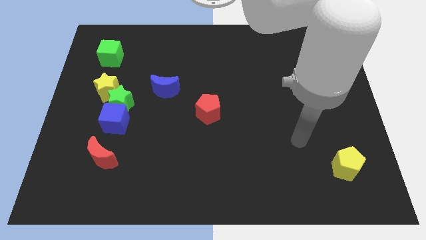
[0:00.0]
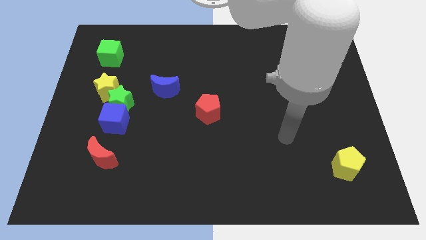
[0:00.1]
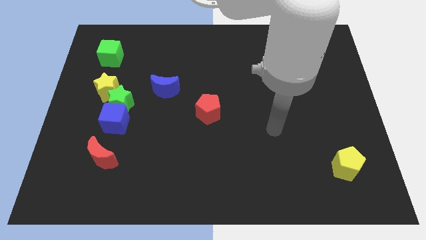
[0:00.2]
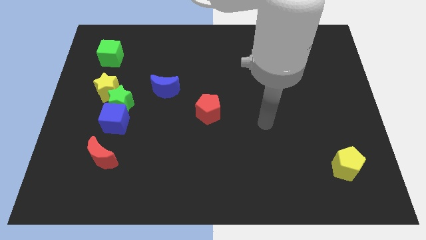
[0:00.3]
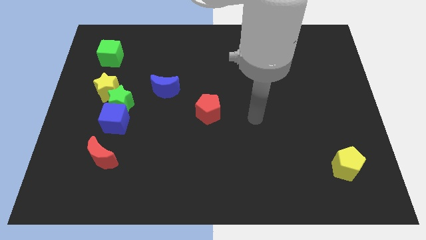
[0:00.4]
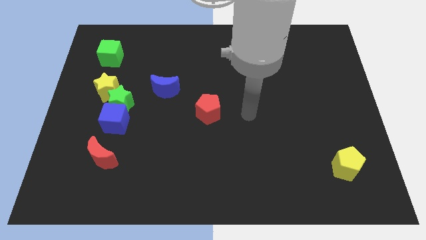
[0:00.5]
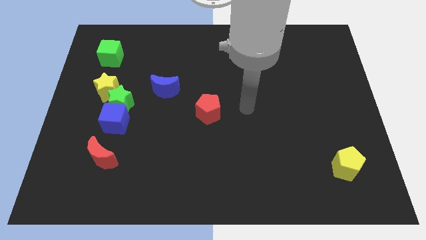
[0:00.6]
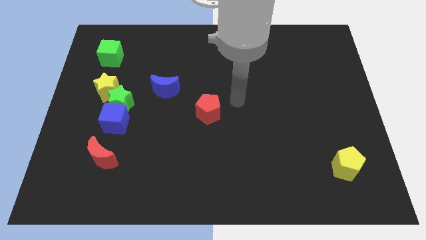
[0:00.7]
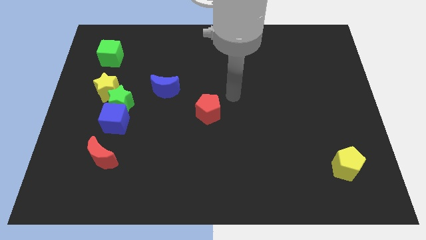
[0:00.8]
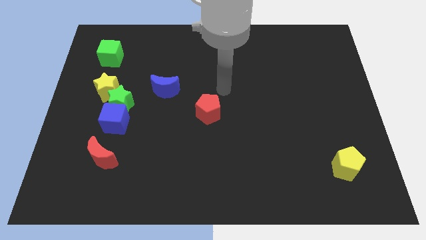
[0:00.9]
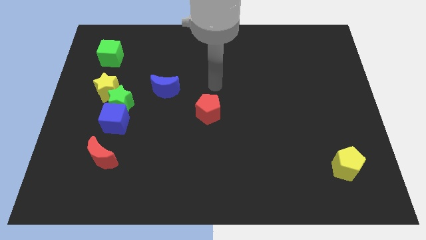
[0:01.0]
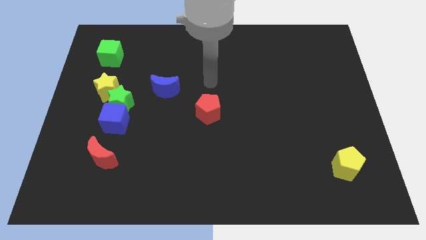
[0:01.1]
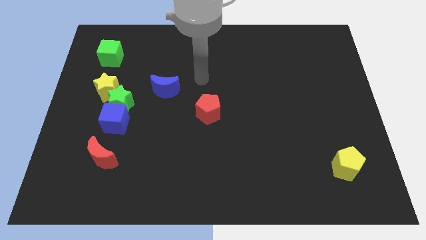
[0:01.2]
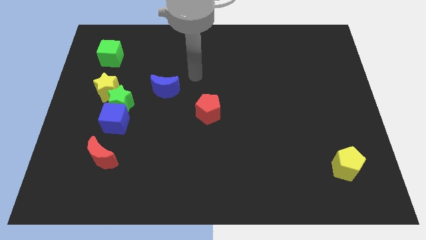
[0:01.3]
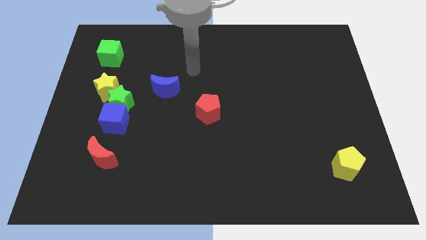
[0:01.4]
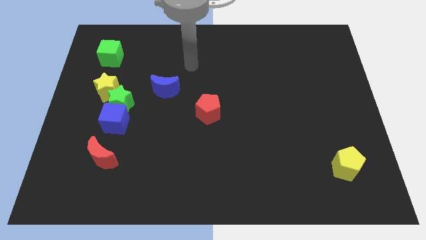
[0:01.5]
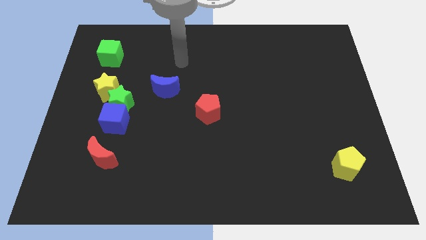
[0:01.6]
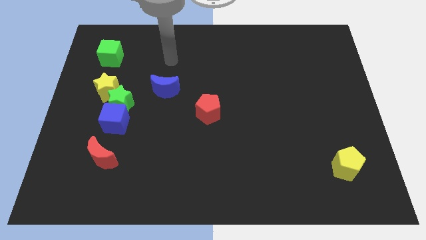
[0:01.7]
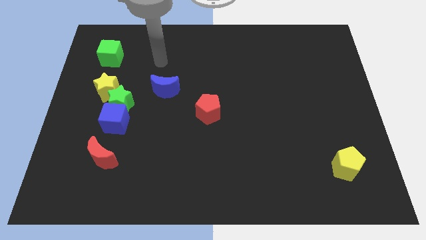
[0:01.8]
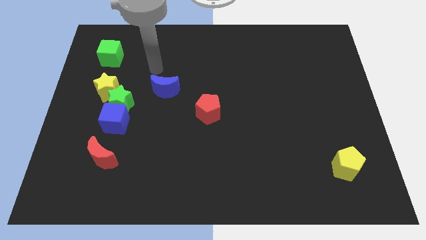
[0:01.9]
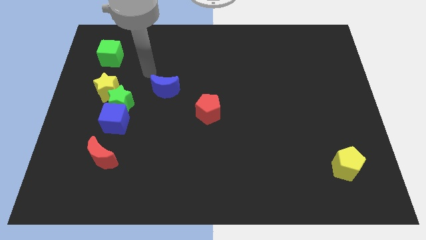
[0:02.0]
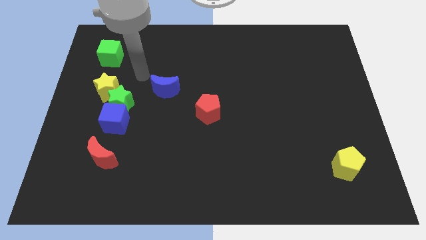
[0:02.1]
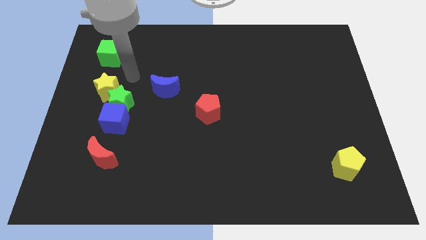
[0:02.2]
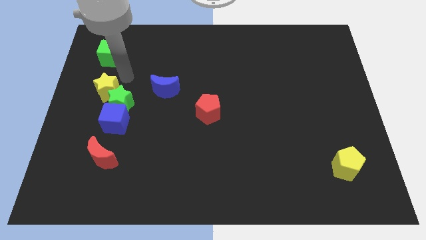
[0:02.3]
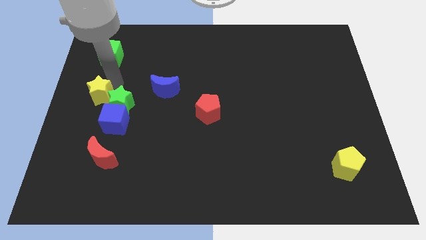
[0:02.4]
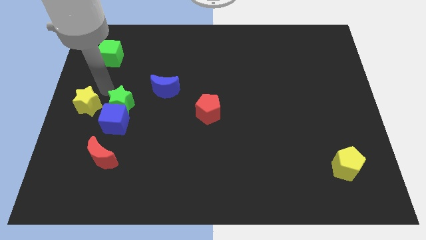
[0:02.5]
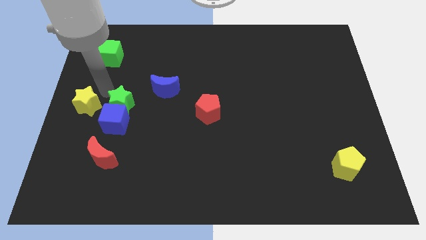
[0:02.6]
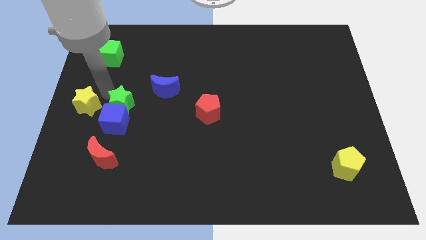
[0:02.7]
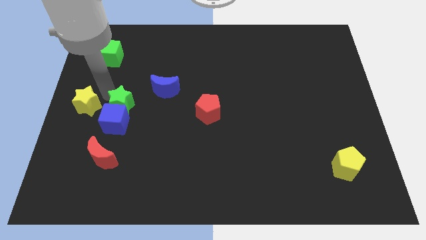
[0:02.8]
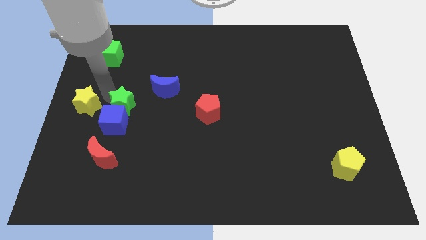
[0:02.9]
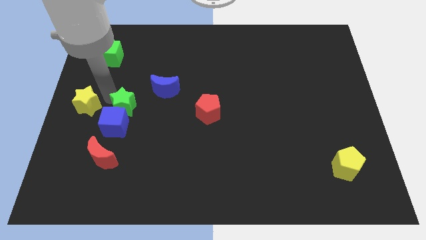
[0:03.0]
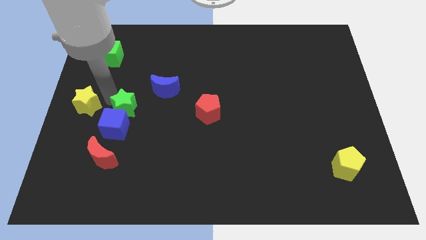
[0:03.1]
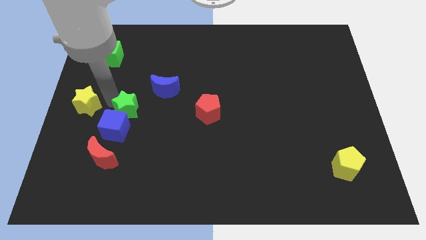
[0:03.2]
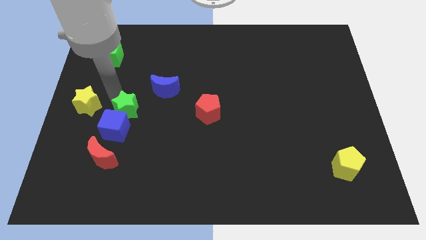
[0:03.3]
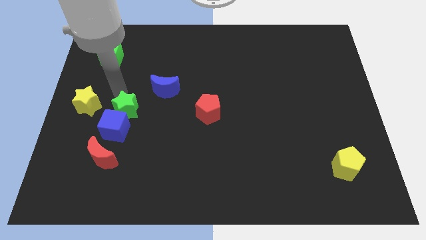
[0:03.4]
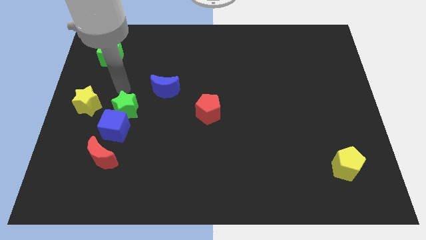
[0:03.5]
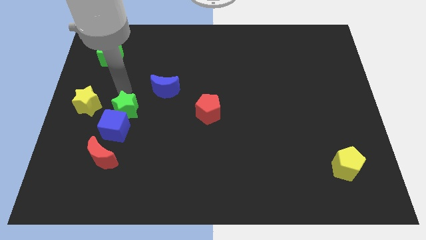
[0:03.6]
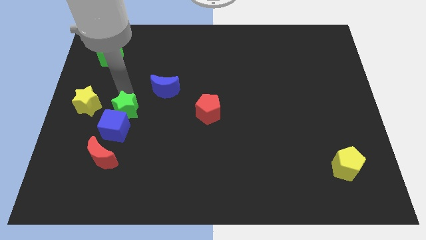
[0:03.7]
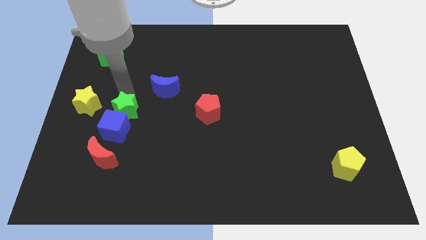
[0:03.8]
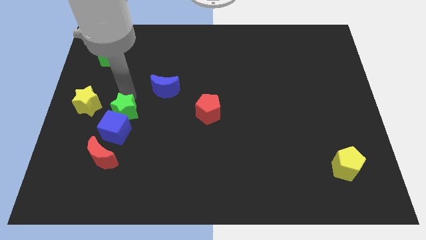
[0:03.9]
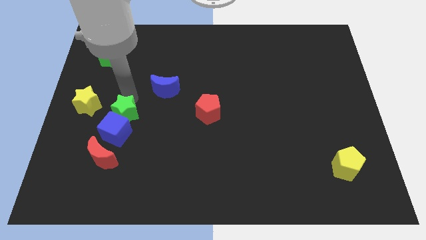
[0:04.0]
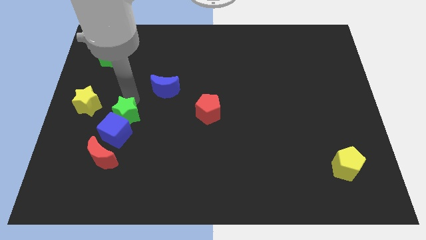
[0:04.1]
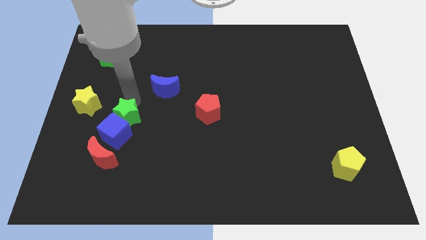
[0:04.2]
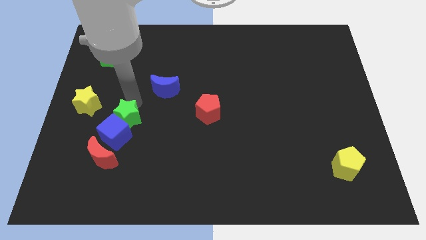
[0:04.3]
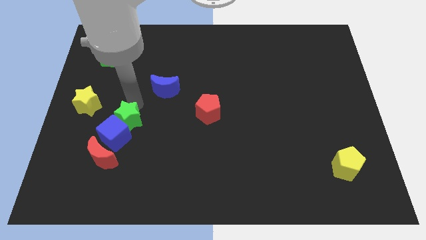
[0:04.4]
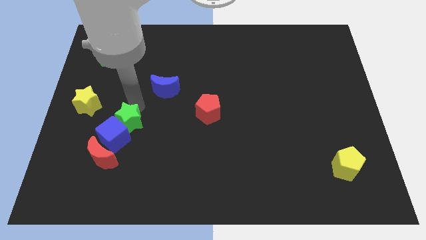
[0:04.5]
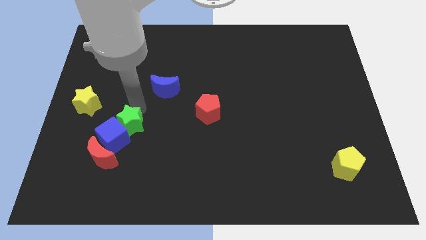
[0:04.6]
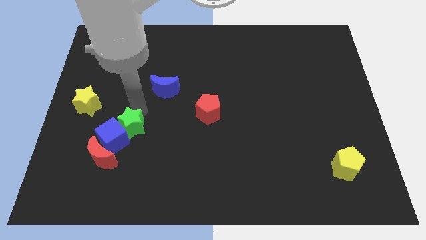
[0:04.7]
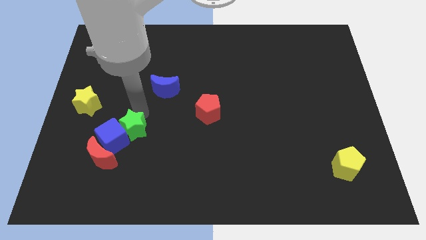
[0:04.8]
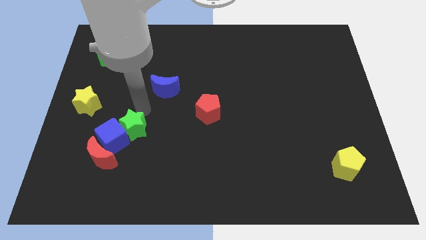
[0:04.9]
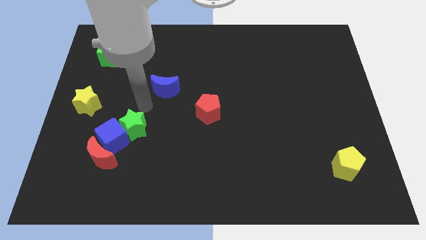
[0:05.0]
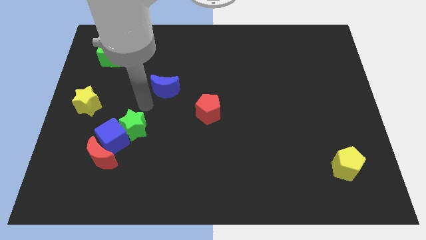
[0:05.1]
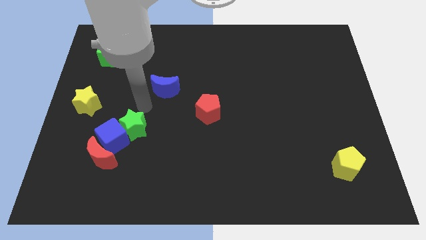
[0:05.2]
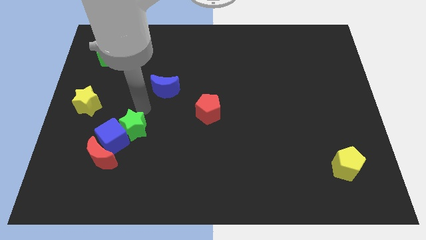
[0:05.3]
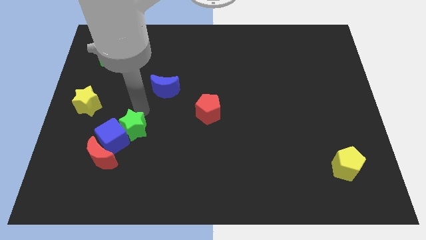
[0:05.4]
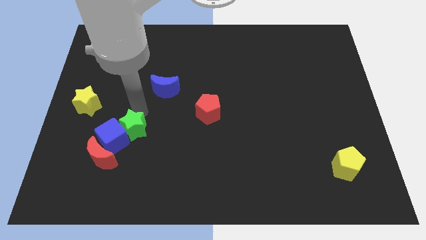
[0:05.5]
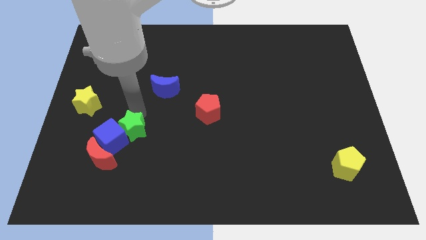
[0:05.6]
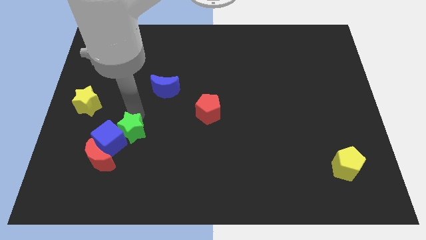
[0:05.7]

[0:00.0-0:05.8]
push the green star down slightly

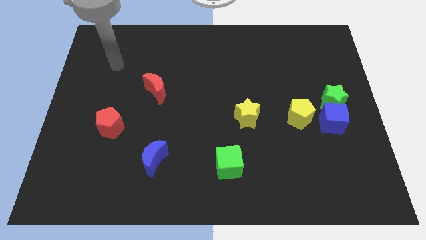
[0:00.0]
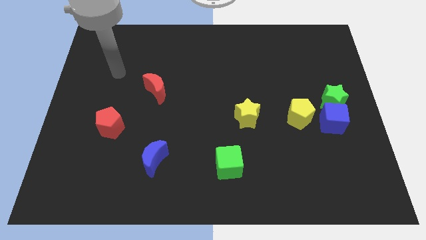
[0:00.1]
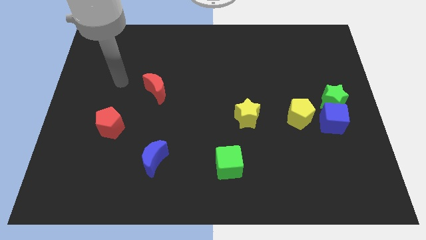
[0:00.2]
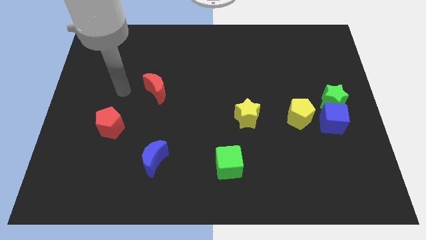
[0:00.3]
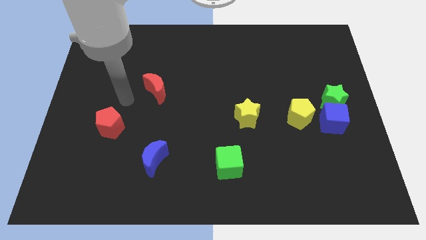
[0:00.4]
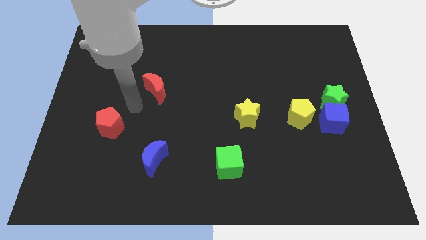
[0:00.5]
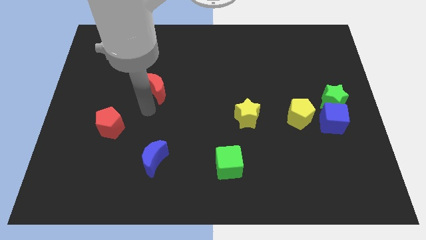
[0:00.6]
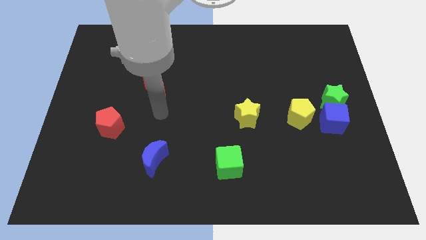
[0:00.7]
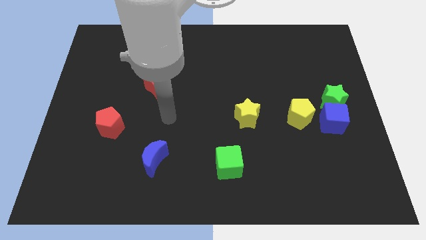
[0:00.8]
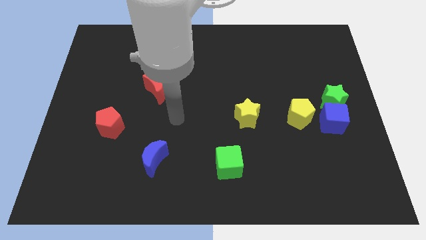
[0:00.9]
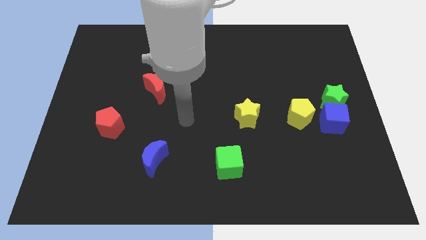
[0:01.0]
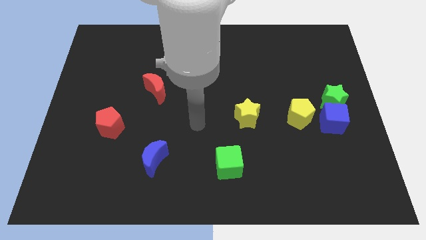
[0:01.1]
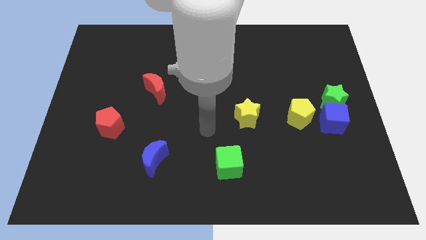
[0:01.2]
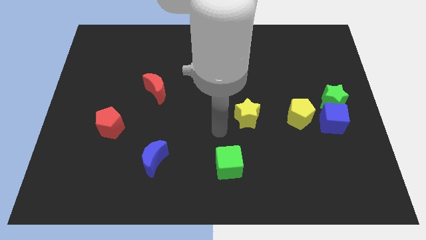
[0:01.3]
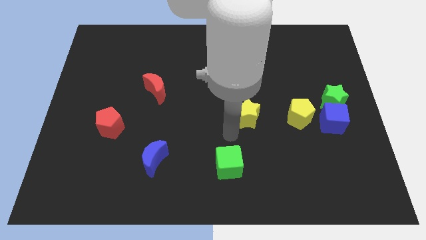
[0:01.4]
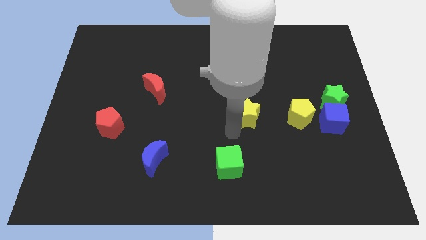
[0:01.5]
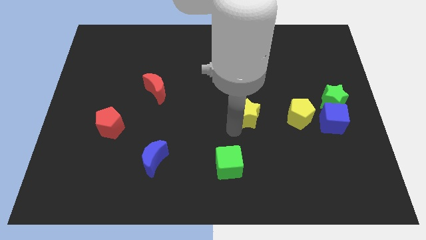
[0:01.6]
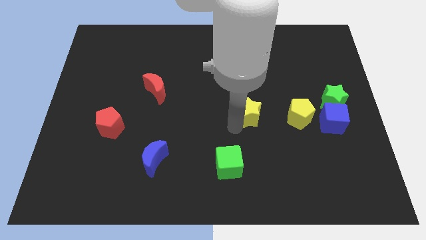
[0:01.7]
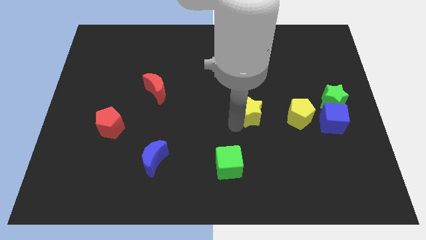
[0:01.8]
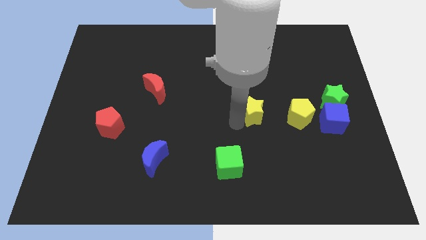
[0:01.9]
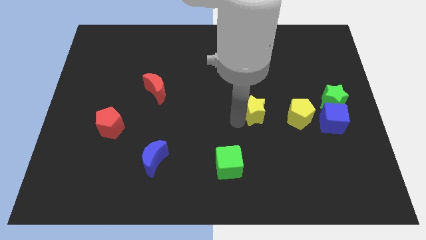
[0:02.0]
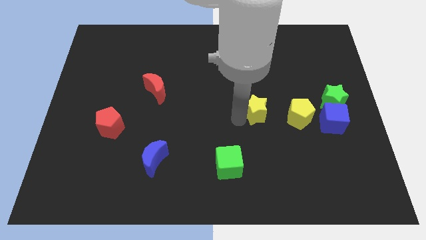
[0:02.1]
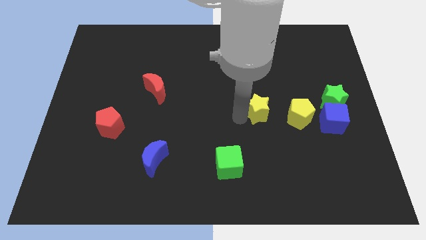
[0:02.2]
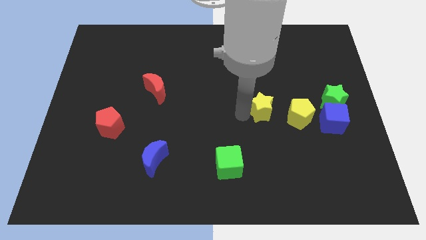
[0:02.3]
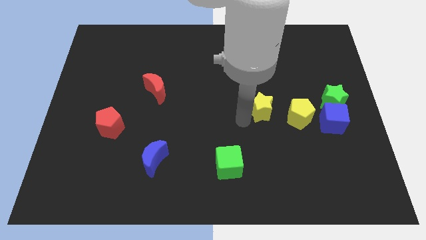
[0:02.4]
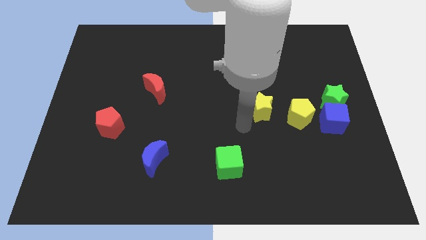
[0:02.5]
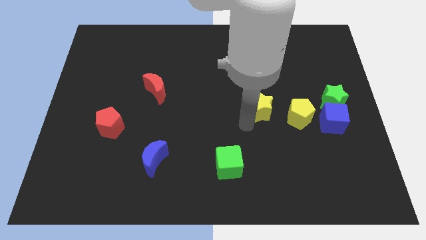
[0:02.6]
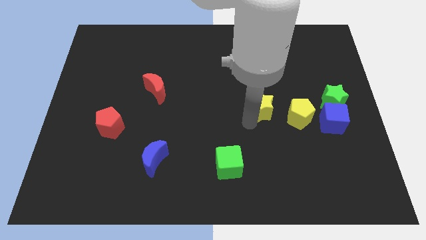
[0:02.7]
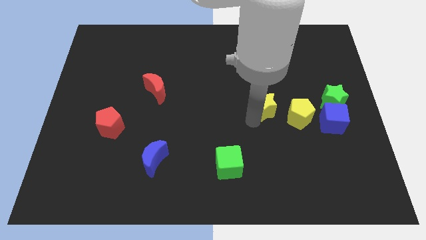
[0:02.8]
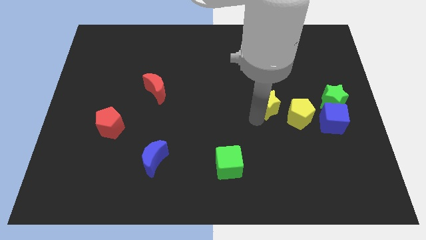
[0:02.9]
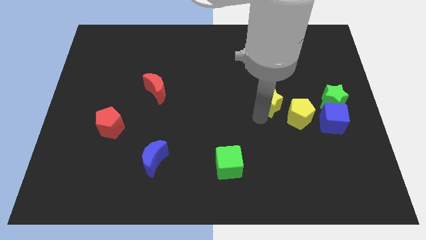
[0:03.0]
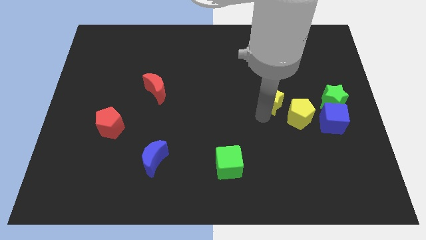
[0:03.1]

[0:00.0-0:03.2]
slide the yellow star upwards and right slightly
